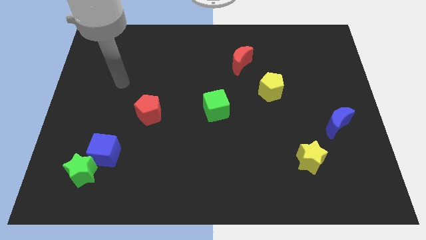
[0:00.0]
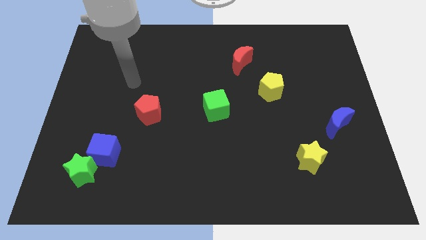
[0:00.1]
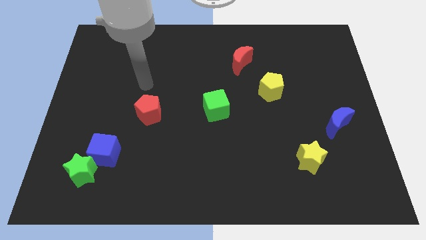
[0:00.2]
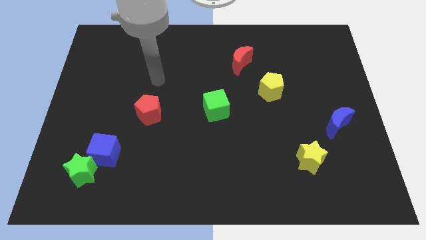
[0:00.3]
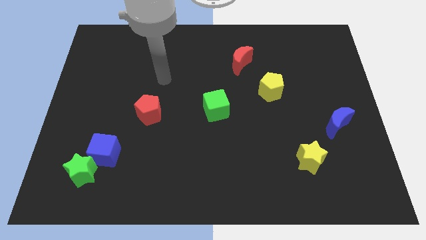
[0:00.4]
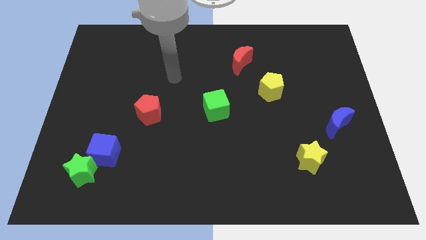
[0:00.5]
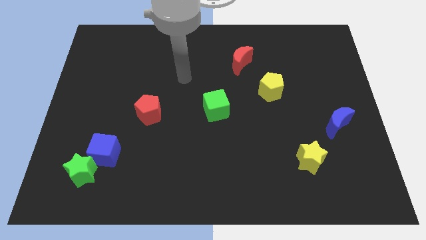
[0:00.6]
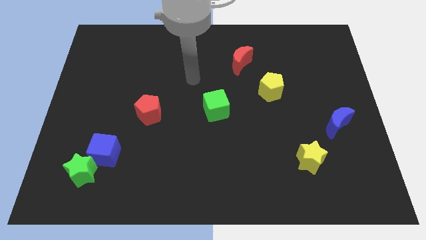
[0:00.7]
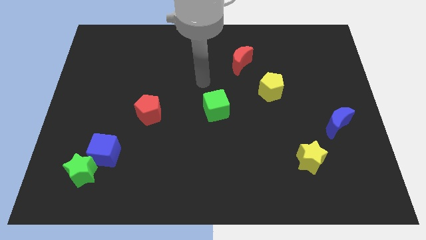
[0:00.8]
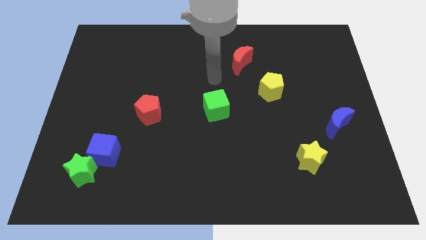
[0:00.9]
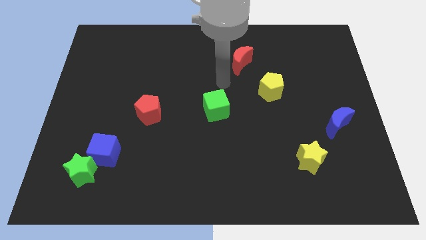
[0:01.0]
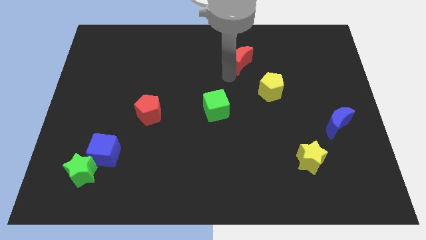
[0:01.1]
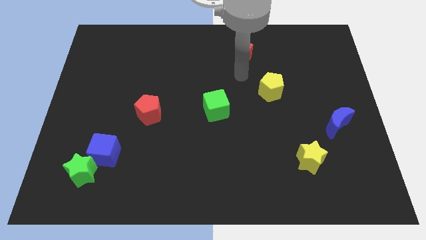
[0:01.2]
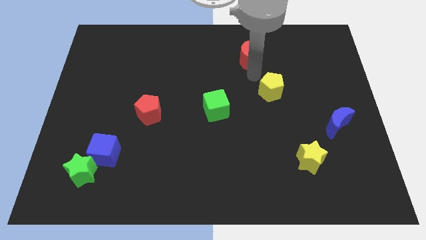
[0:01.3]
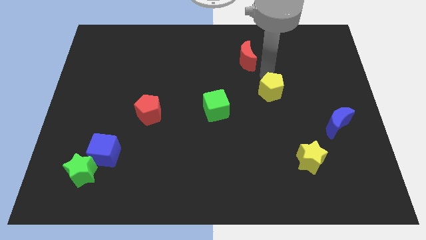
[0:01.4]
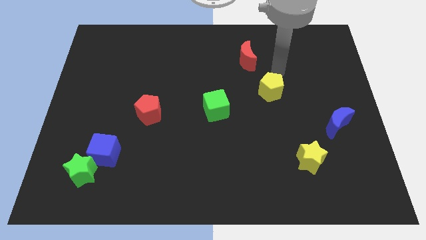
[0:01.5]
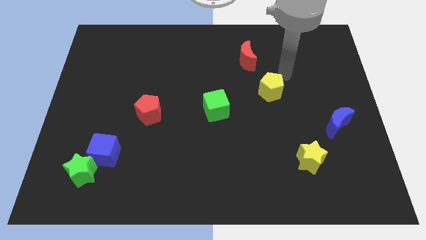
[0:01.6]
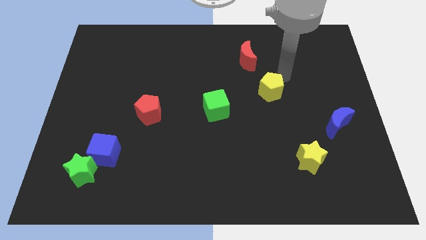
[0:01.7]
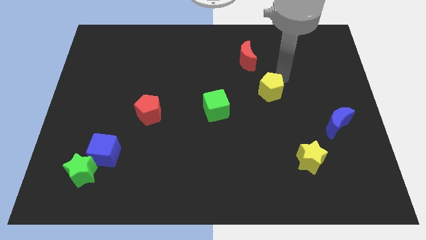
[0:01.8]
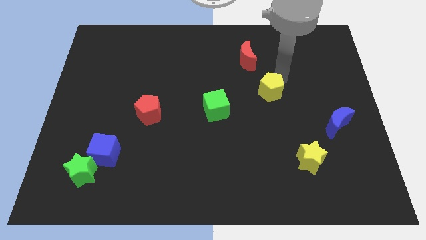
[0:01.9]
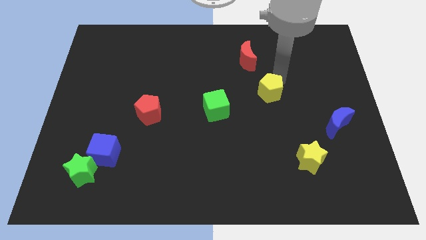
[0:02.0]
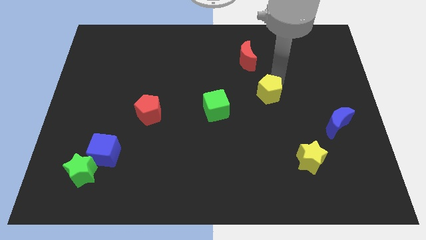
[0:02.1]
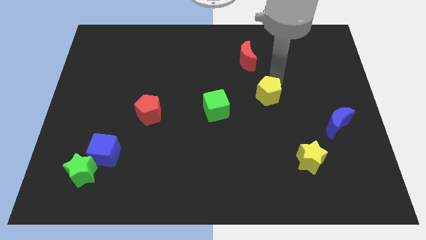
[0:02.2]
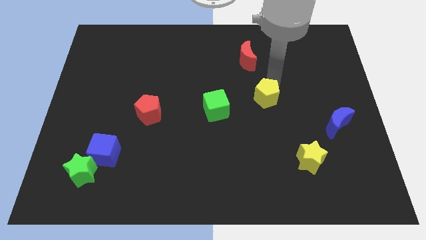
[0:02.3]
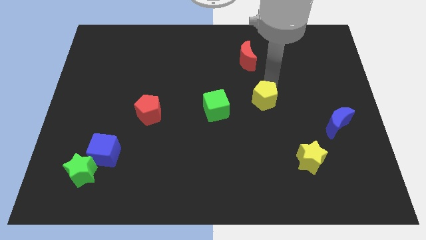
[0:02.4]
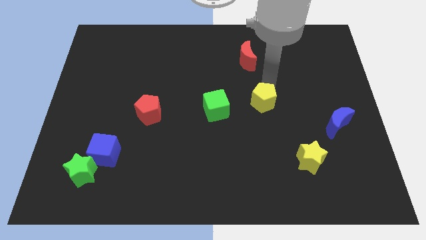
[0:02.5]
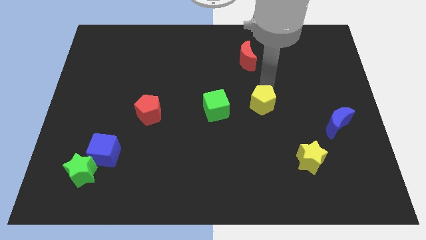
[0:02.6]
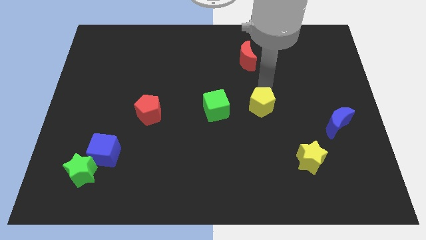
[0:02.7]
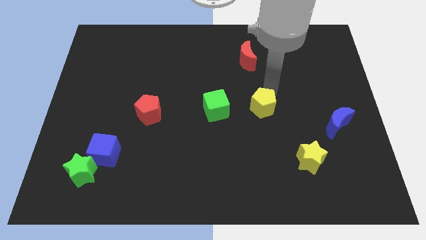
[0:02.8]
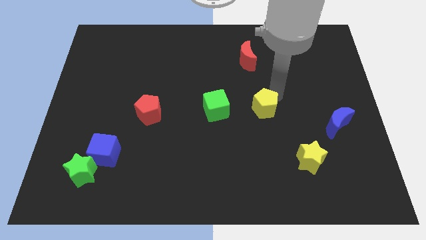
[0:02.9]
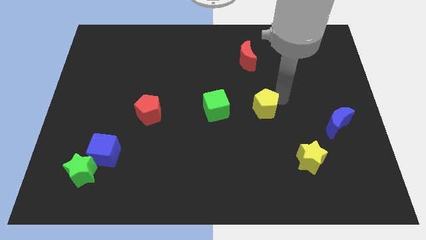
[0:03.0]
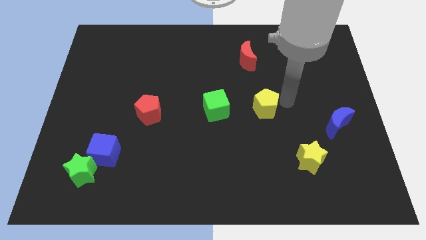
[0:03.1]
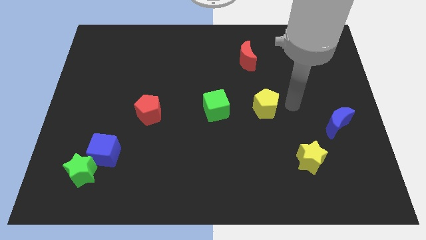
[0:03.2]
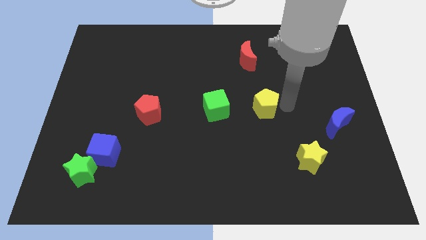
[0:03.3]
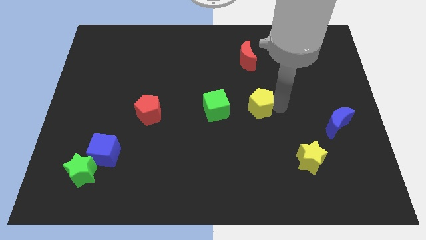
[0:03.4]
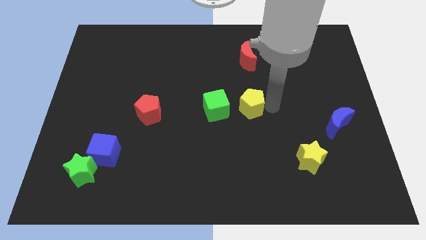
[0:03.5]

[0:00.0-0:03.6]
move the yellow pentagon downwards and then left a little bit

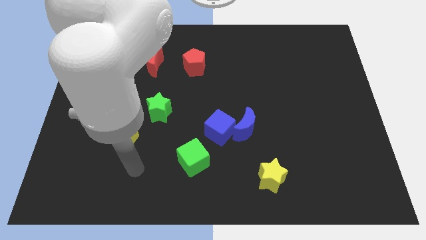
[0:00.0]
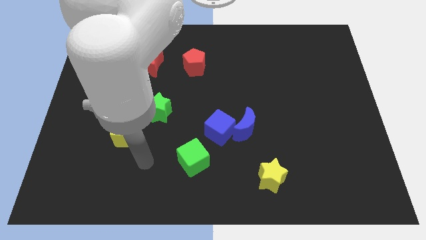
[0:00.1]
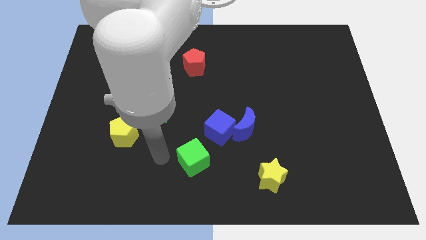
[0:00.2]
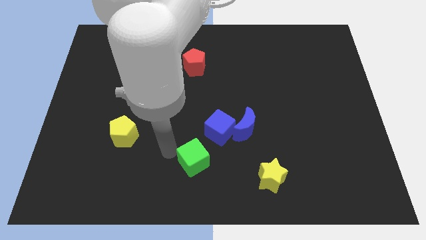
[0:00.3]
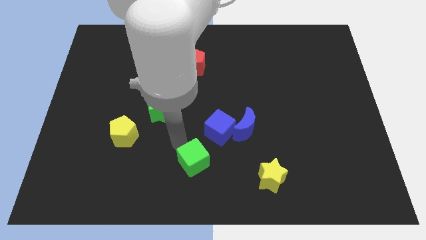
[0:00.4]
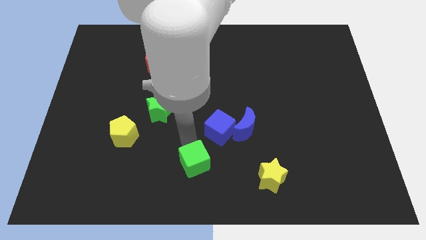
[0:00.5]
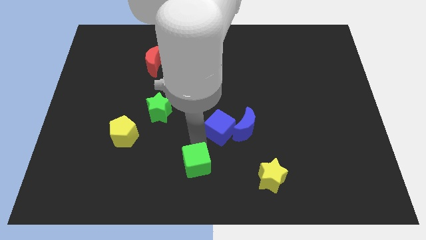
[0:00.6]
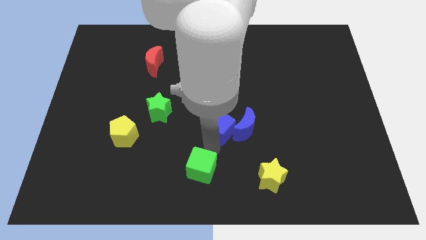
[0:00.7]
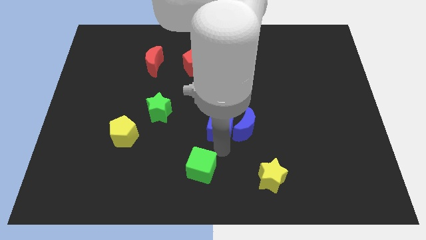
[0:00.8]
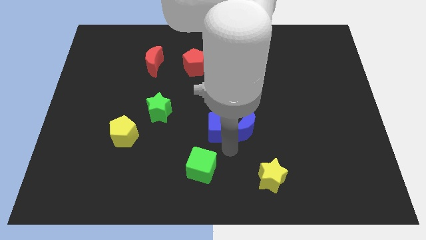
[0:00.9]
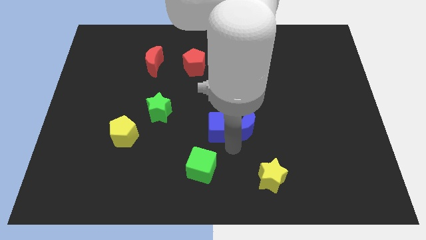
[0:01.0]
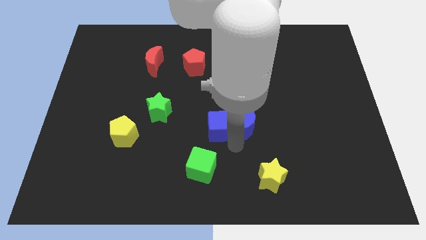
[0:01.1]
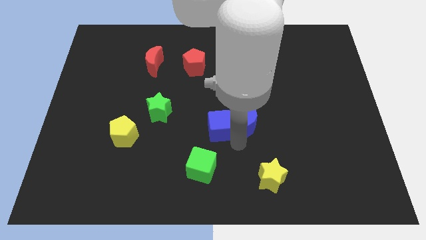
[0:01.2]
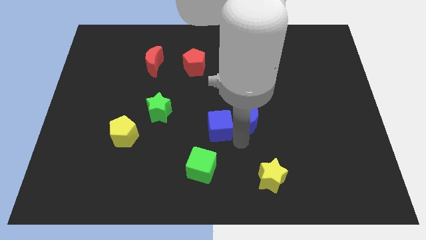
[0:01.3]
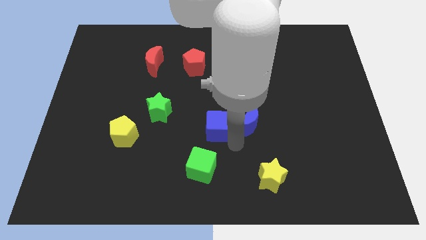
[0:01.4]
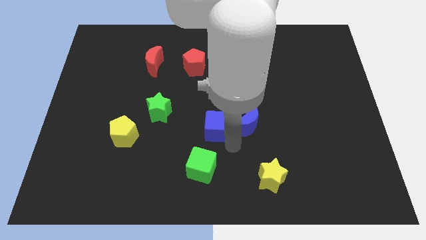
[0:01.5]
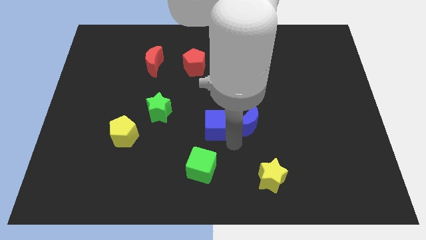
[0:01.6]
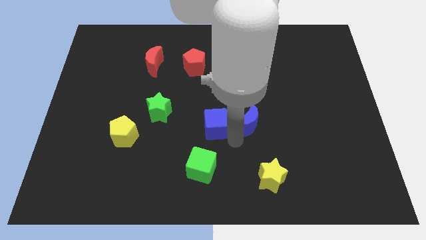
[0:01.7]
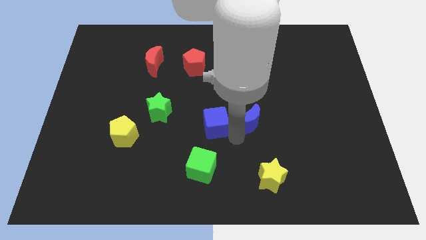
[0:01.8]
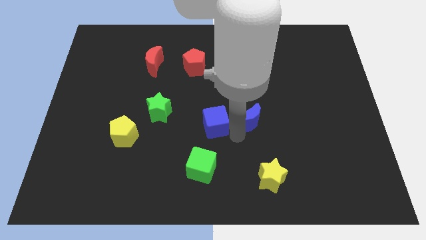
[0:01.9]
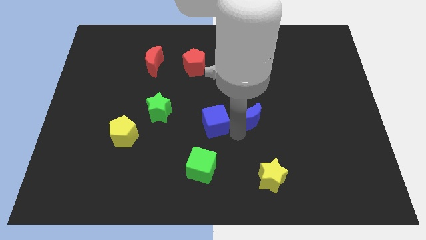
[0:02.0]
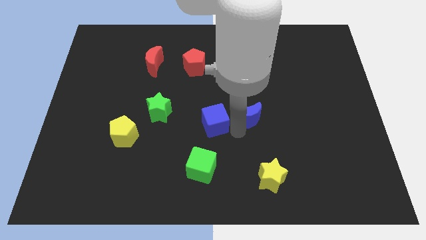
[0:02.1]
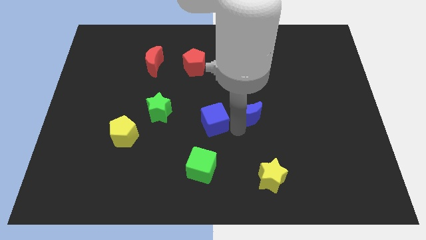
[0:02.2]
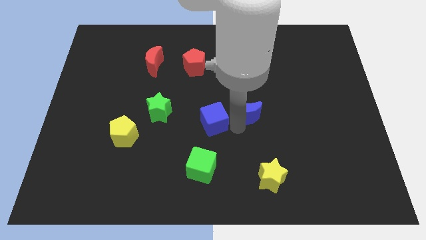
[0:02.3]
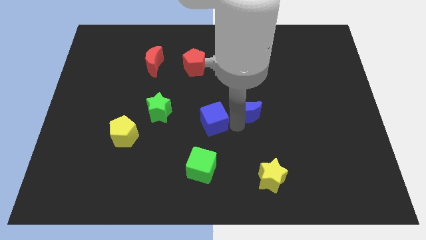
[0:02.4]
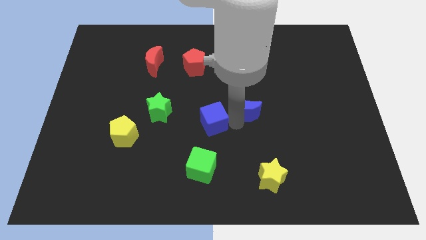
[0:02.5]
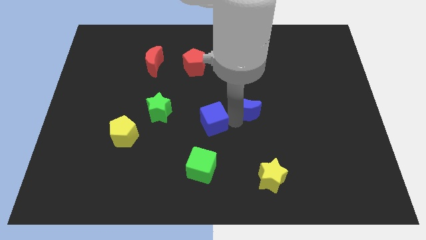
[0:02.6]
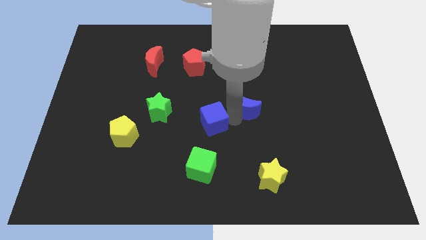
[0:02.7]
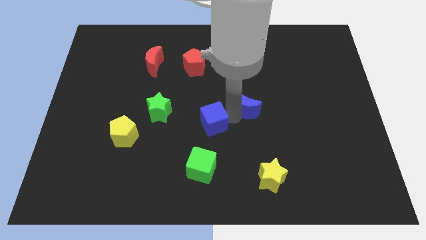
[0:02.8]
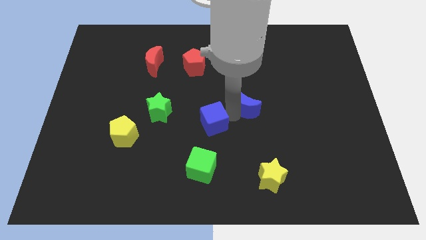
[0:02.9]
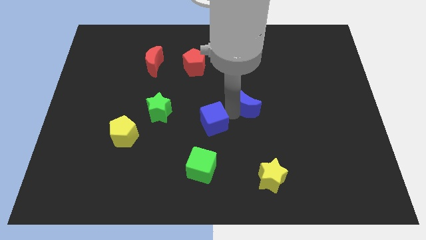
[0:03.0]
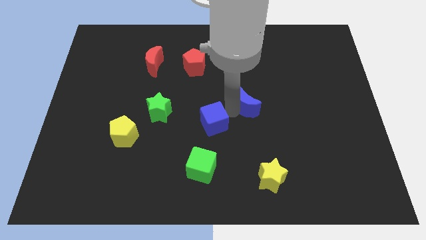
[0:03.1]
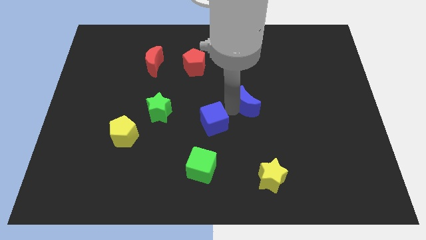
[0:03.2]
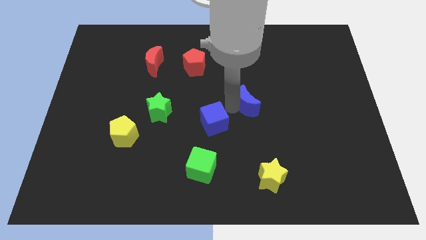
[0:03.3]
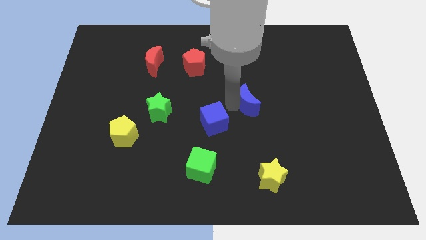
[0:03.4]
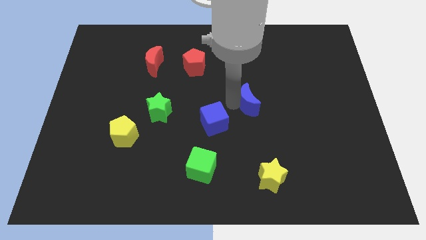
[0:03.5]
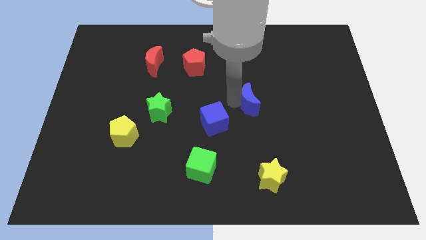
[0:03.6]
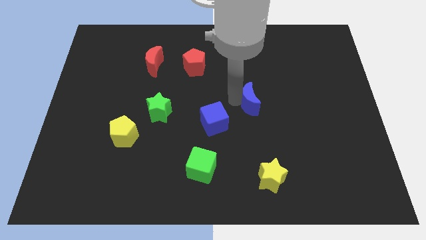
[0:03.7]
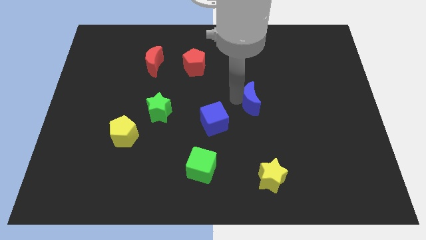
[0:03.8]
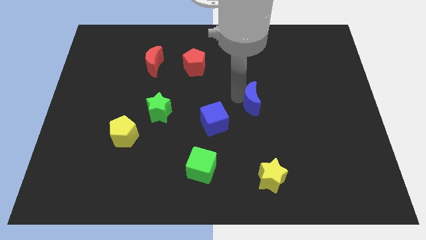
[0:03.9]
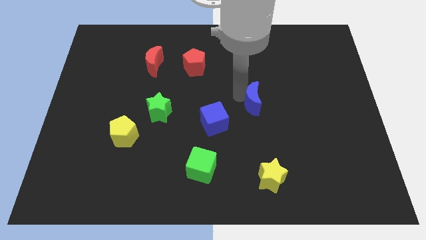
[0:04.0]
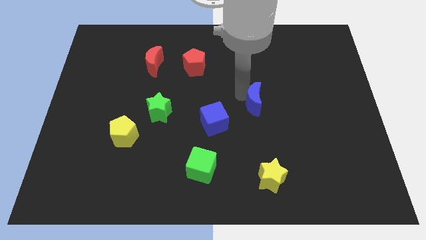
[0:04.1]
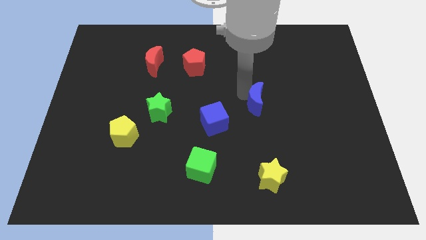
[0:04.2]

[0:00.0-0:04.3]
slightly move the blue moon up and then right

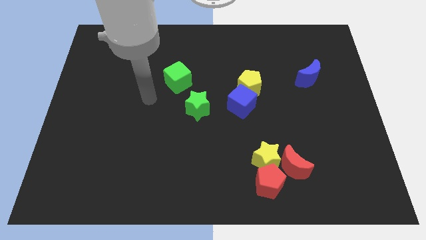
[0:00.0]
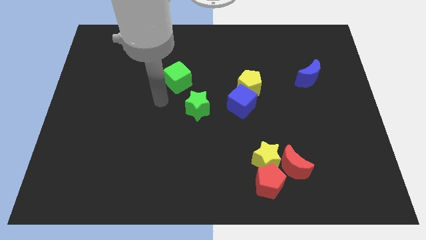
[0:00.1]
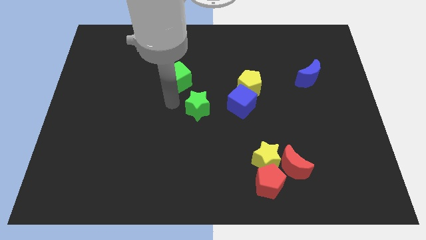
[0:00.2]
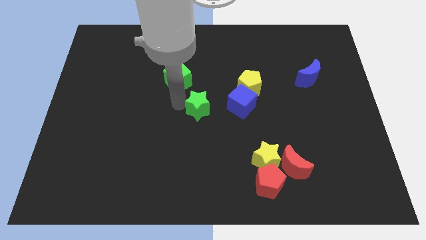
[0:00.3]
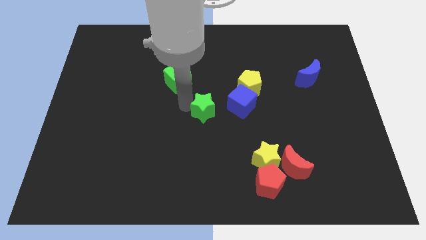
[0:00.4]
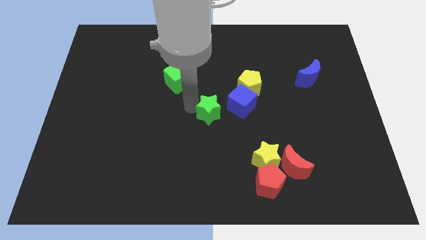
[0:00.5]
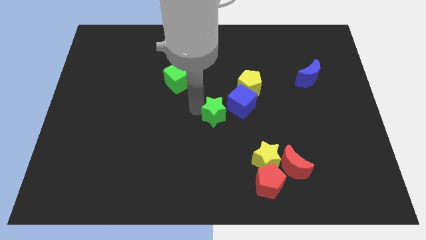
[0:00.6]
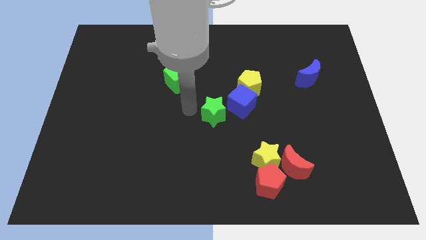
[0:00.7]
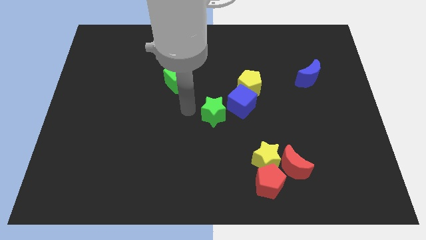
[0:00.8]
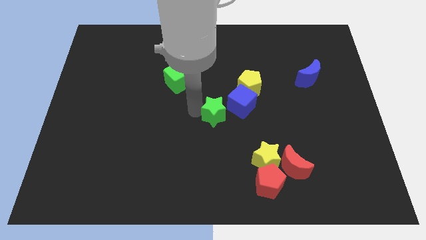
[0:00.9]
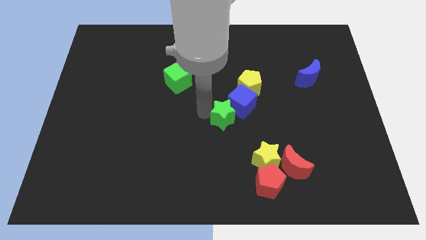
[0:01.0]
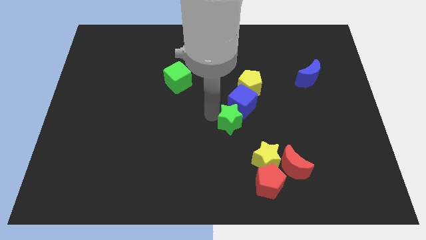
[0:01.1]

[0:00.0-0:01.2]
move the green star to the right a little bit
